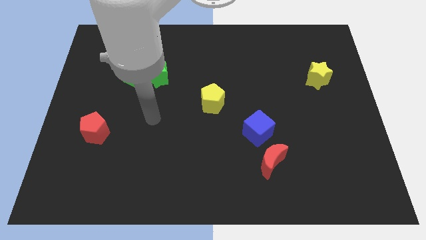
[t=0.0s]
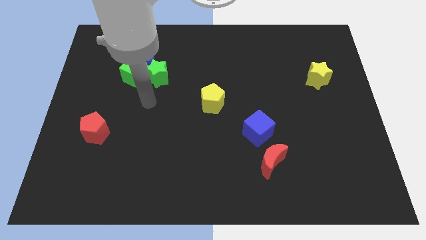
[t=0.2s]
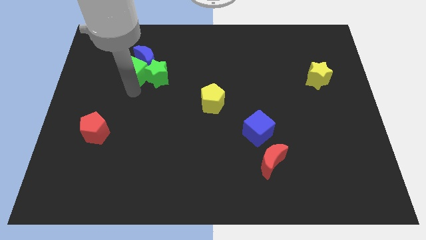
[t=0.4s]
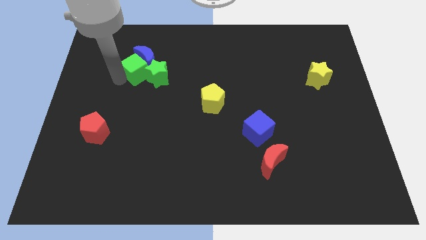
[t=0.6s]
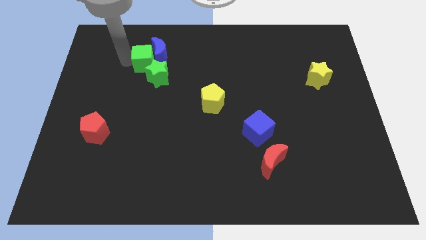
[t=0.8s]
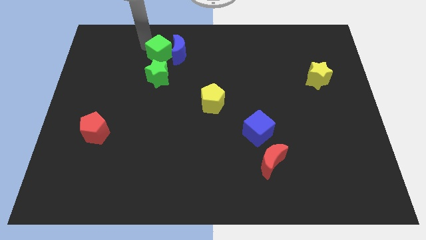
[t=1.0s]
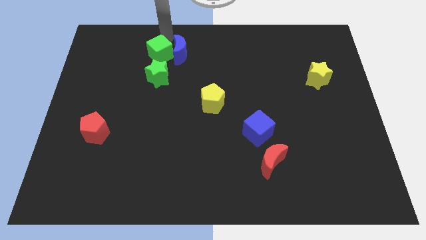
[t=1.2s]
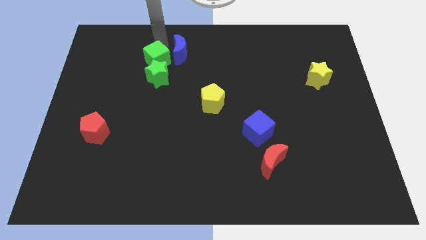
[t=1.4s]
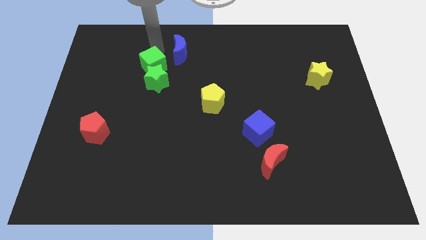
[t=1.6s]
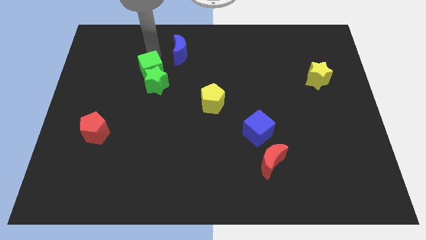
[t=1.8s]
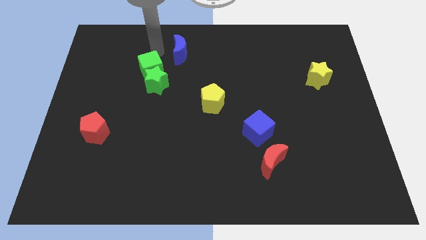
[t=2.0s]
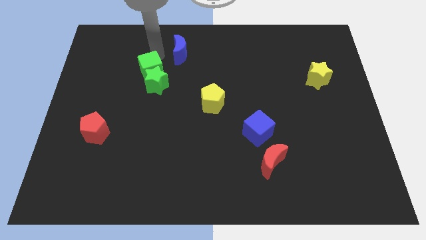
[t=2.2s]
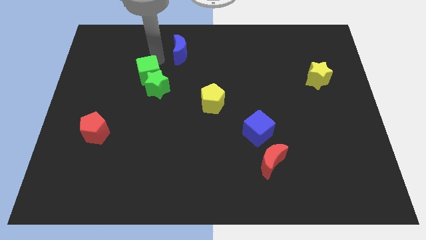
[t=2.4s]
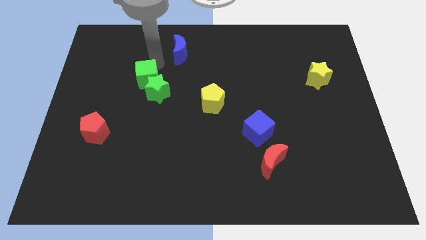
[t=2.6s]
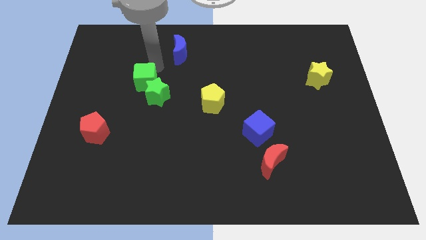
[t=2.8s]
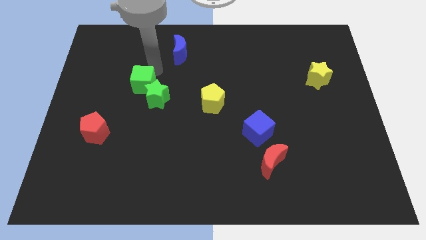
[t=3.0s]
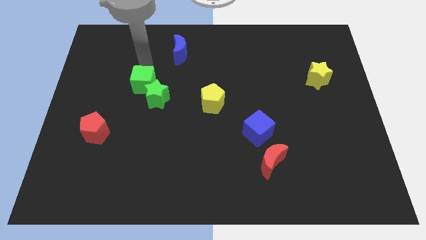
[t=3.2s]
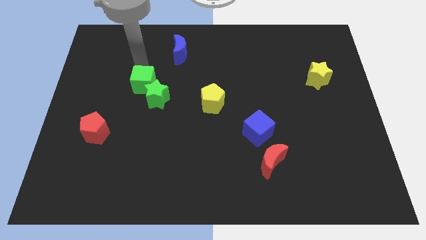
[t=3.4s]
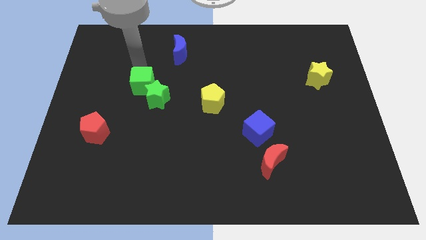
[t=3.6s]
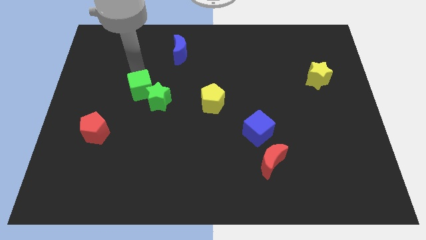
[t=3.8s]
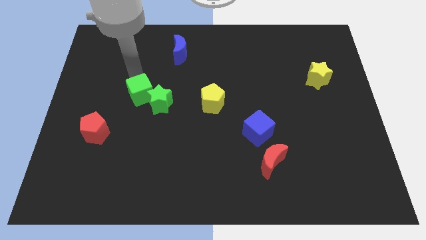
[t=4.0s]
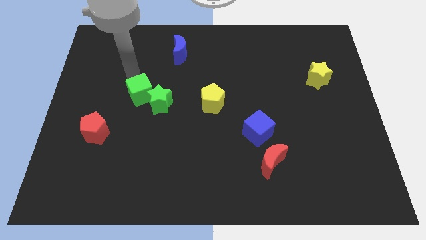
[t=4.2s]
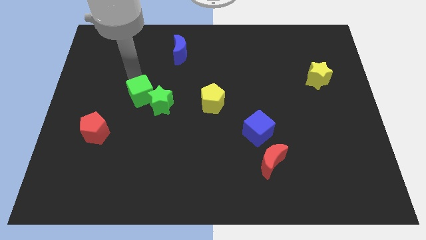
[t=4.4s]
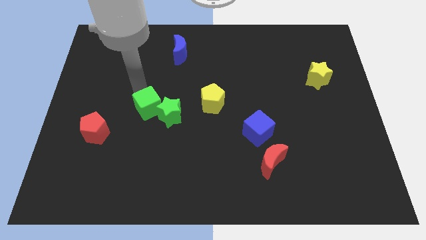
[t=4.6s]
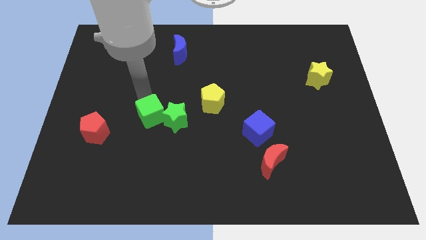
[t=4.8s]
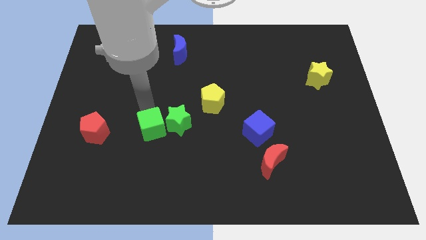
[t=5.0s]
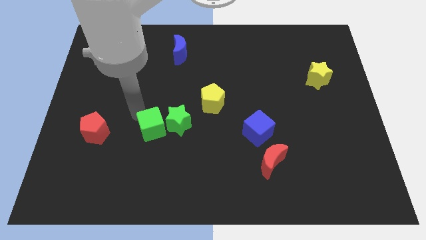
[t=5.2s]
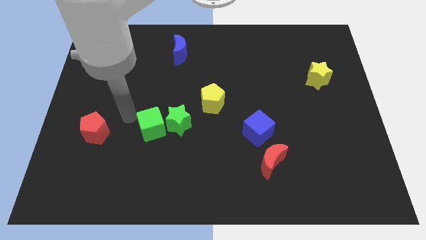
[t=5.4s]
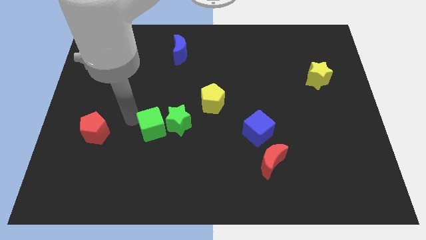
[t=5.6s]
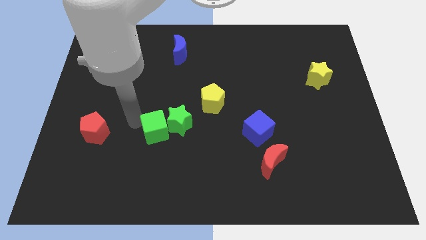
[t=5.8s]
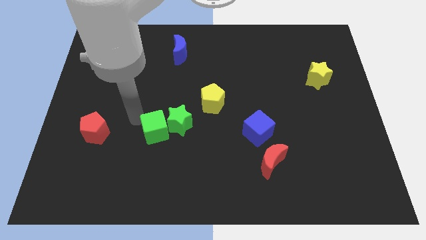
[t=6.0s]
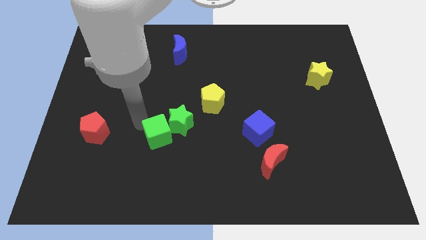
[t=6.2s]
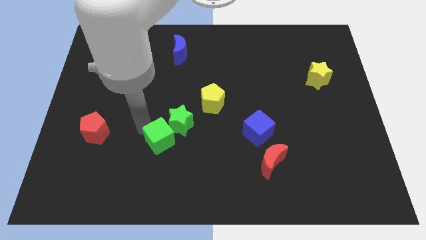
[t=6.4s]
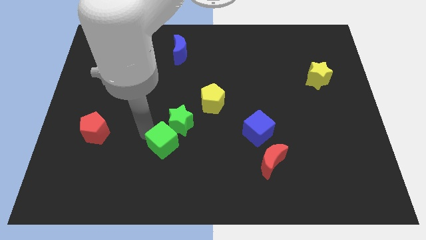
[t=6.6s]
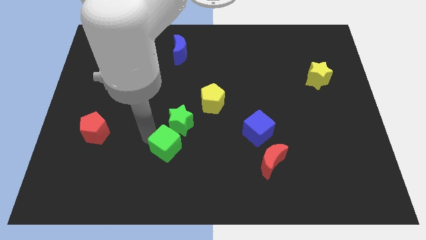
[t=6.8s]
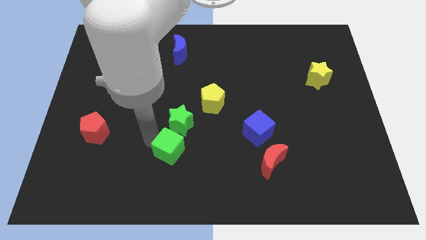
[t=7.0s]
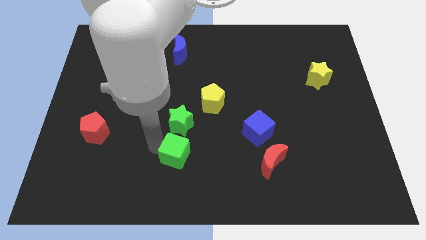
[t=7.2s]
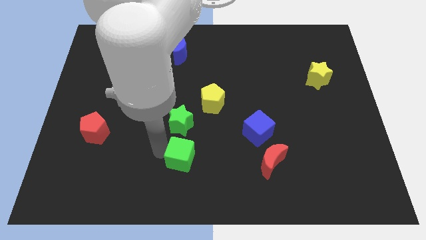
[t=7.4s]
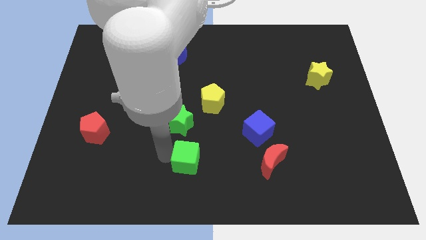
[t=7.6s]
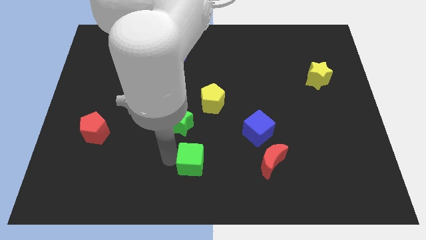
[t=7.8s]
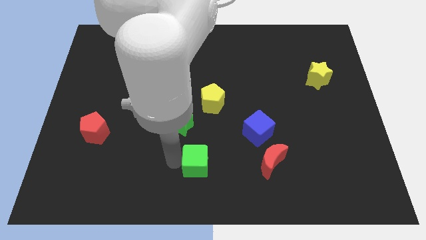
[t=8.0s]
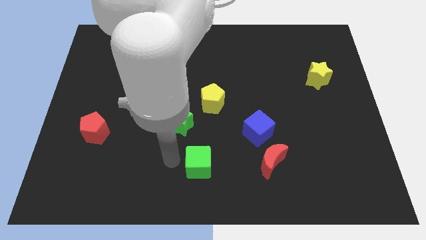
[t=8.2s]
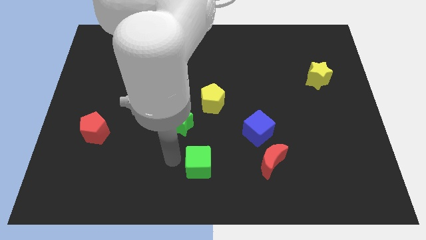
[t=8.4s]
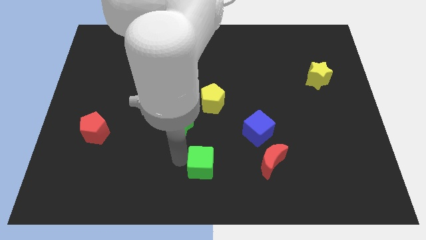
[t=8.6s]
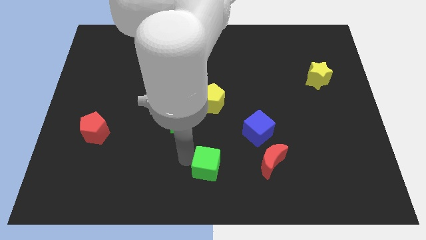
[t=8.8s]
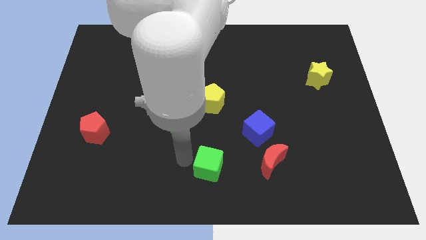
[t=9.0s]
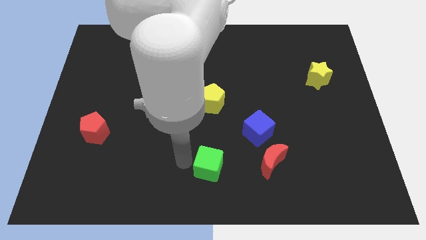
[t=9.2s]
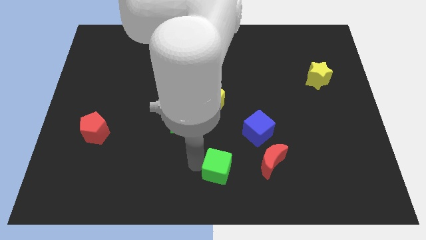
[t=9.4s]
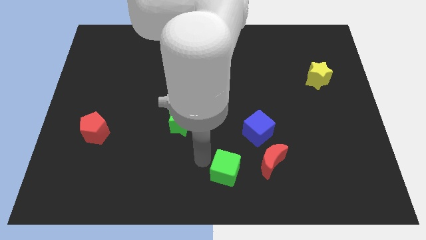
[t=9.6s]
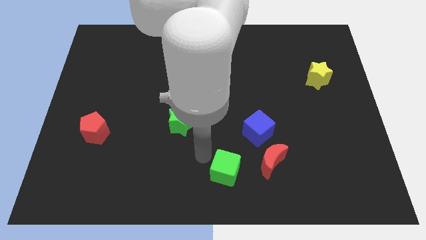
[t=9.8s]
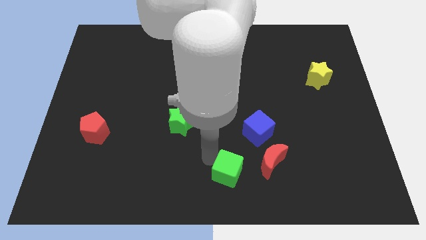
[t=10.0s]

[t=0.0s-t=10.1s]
put the green cube diagonally down and to the left of the red moon

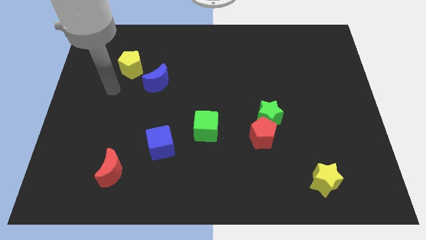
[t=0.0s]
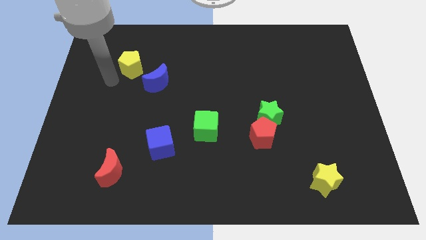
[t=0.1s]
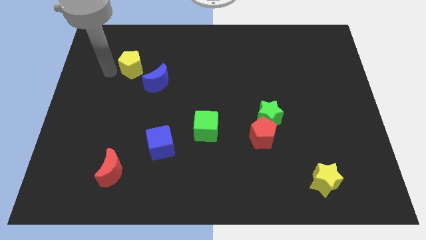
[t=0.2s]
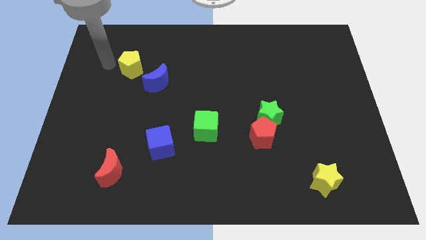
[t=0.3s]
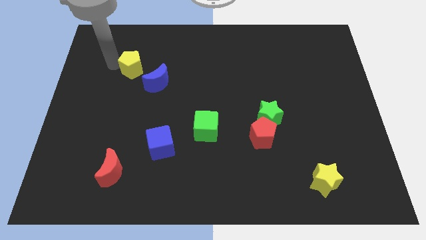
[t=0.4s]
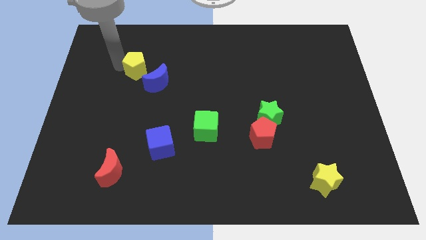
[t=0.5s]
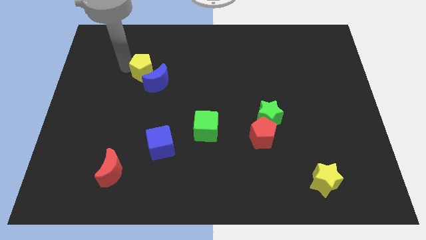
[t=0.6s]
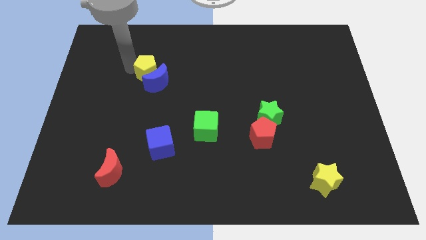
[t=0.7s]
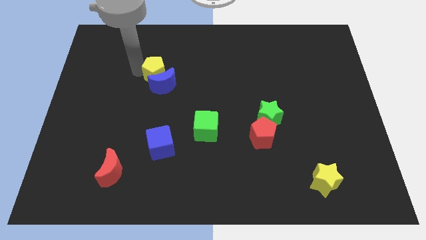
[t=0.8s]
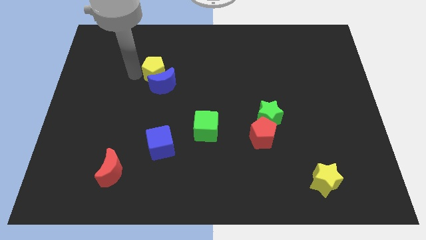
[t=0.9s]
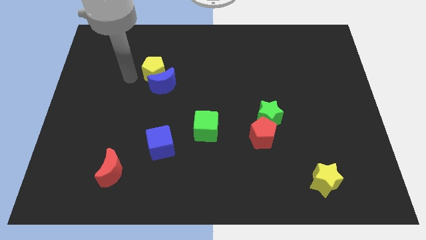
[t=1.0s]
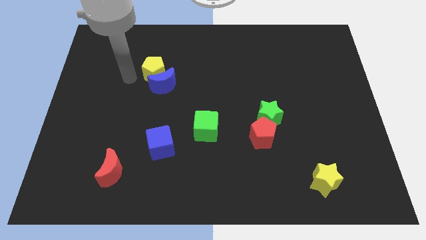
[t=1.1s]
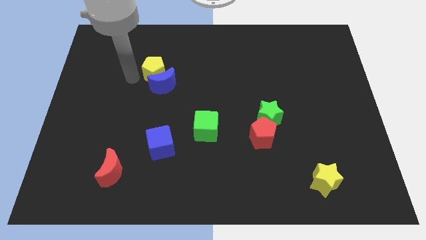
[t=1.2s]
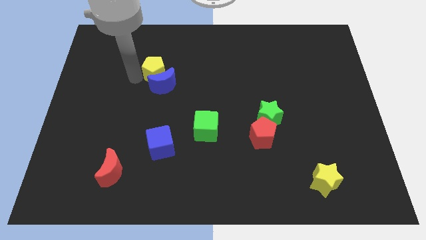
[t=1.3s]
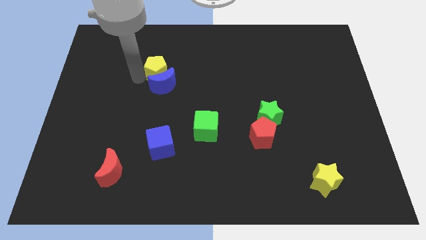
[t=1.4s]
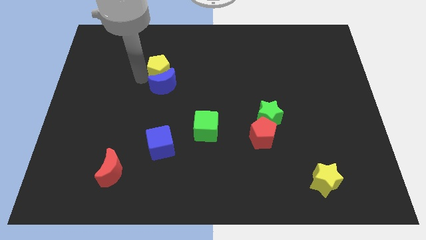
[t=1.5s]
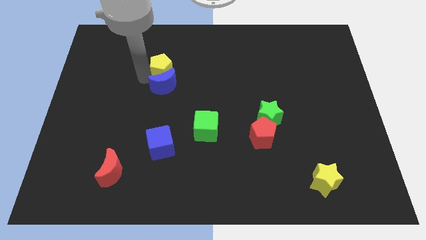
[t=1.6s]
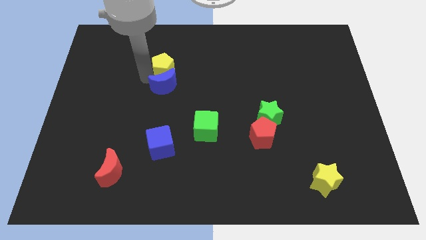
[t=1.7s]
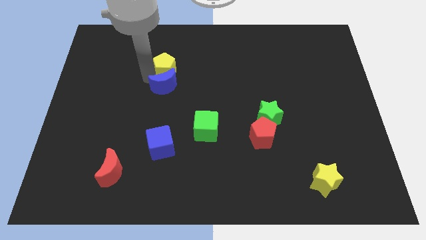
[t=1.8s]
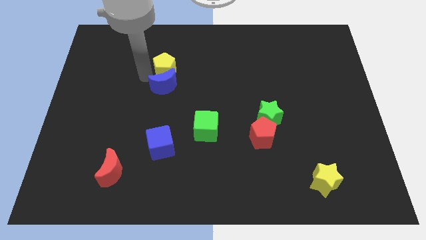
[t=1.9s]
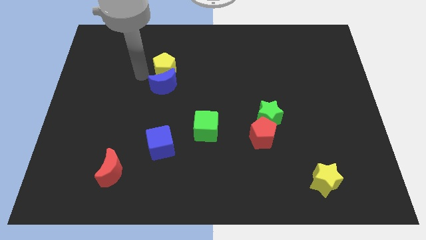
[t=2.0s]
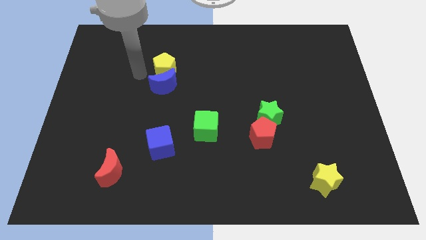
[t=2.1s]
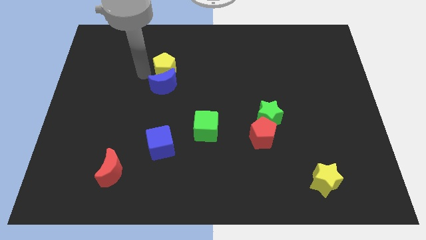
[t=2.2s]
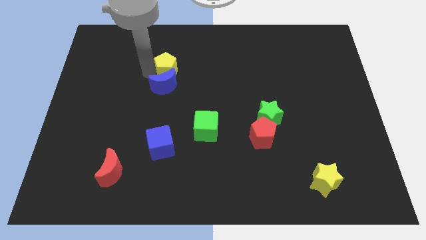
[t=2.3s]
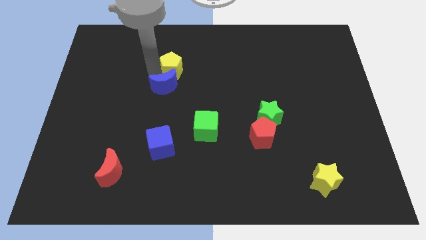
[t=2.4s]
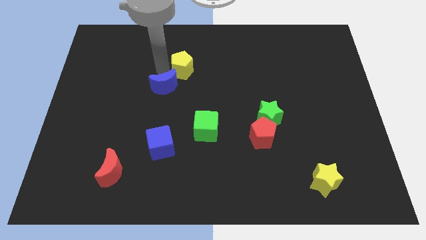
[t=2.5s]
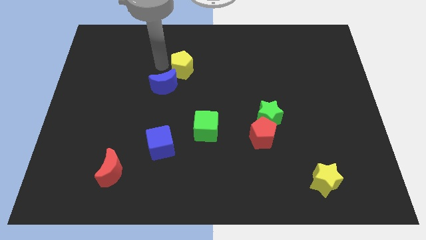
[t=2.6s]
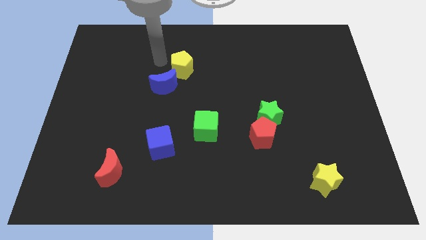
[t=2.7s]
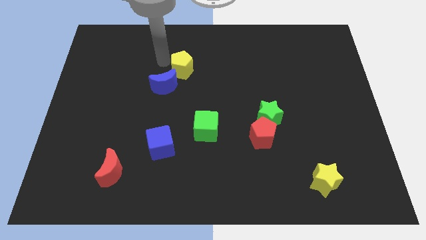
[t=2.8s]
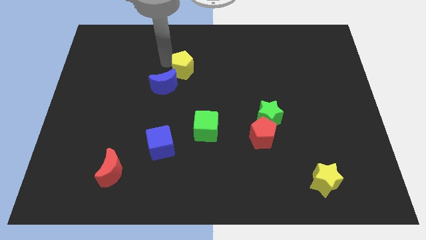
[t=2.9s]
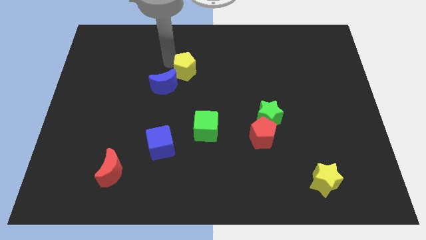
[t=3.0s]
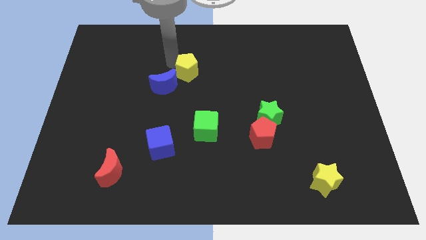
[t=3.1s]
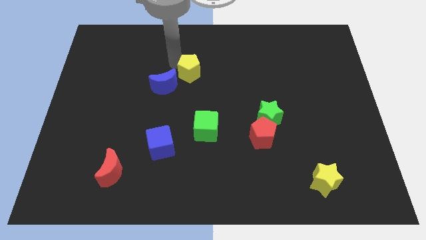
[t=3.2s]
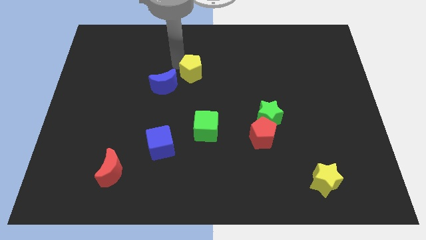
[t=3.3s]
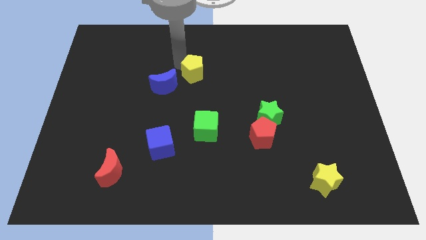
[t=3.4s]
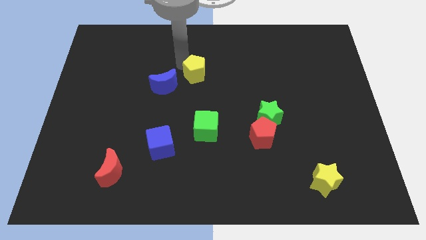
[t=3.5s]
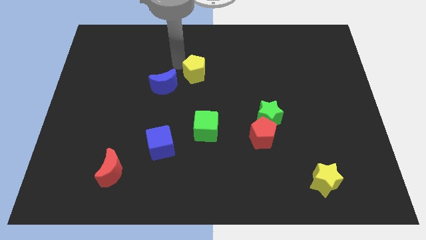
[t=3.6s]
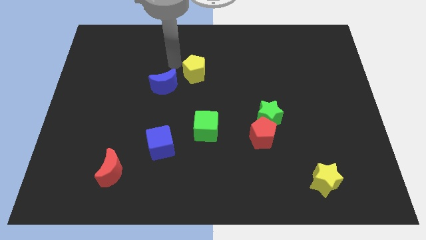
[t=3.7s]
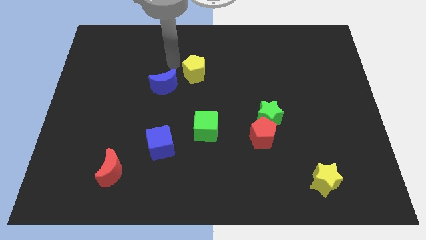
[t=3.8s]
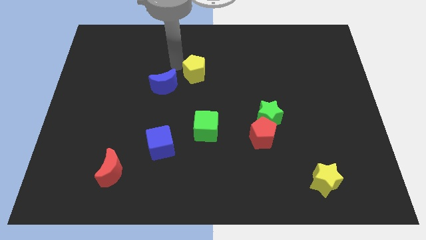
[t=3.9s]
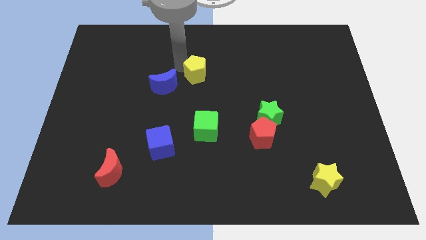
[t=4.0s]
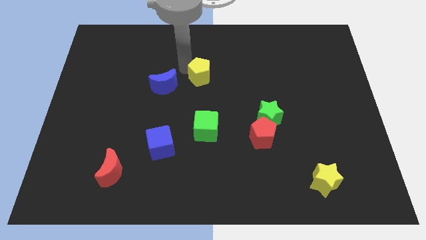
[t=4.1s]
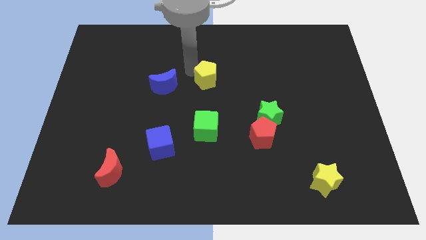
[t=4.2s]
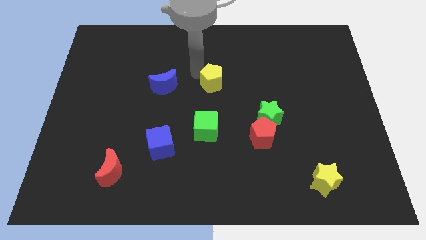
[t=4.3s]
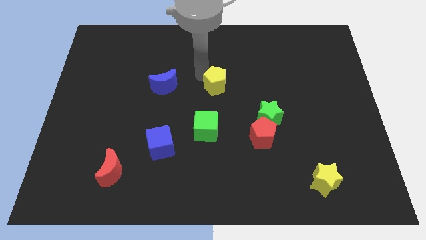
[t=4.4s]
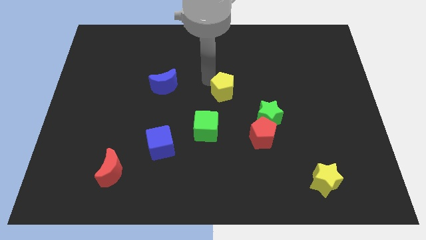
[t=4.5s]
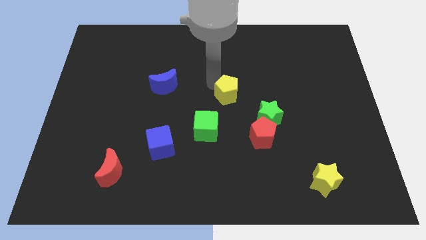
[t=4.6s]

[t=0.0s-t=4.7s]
put the yellow pentagon to the top left side of the green star